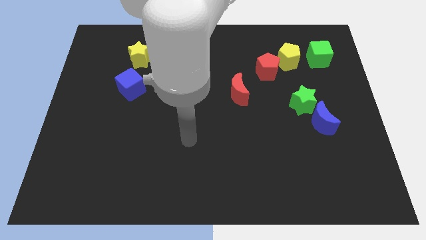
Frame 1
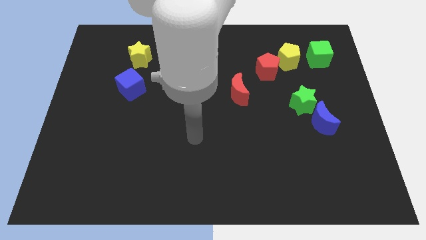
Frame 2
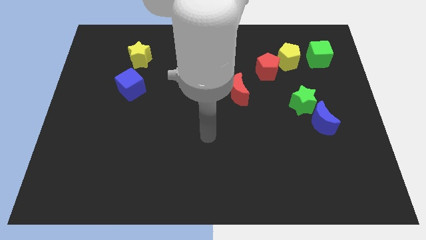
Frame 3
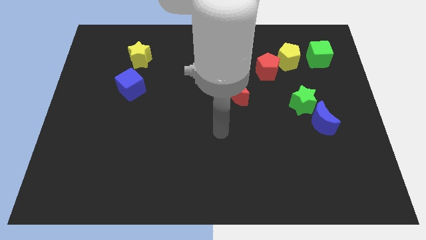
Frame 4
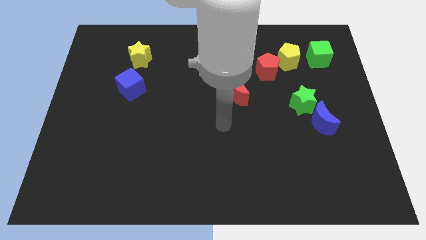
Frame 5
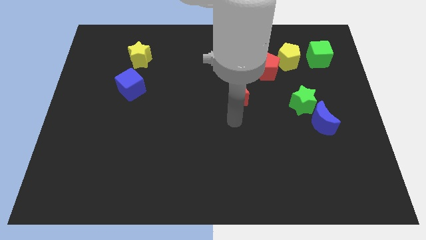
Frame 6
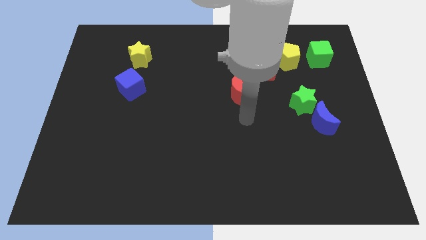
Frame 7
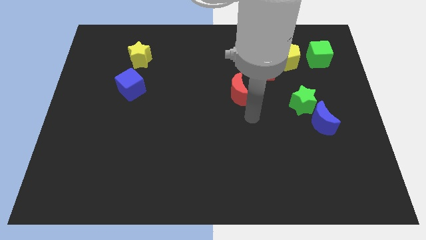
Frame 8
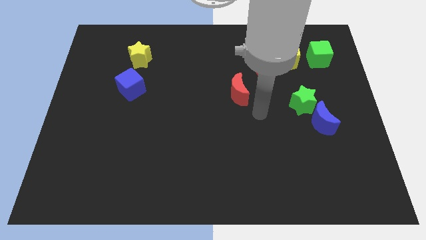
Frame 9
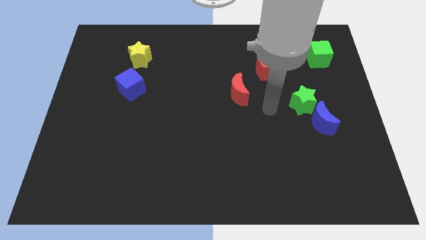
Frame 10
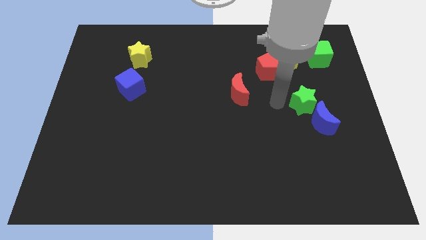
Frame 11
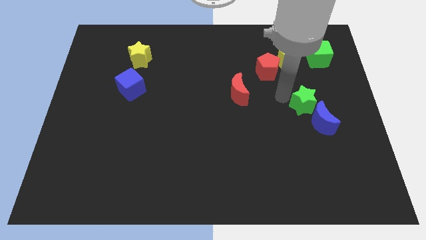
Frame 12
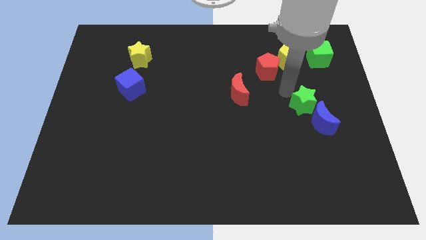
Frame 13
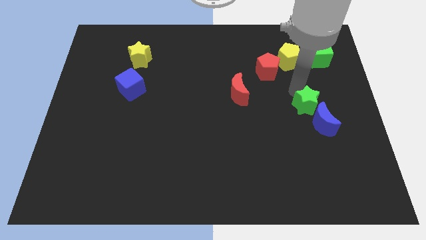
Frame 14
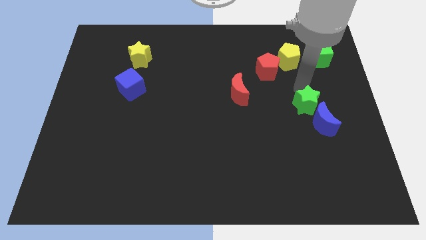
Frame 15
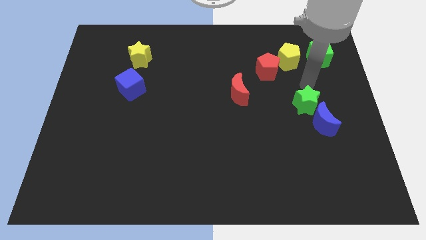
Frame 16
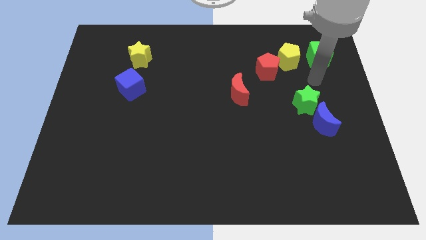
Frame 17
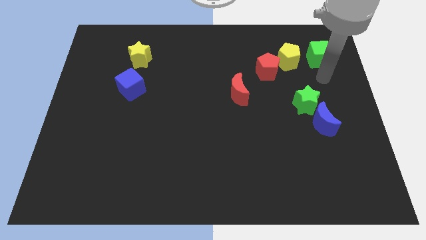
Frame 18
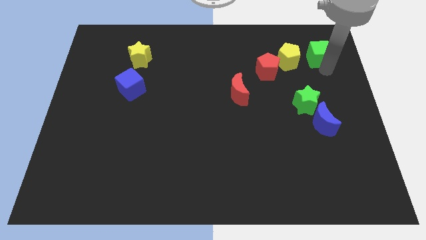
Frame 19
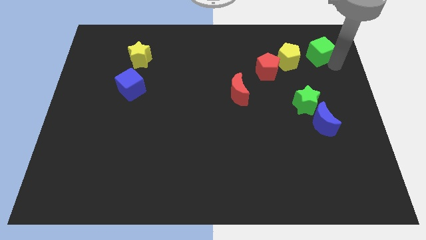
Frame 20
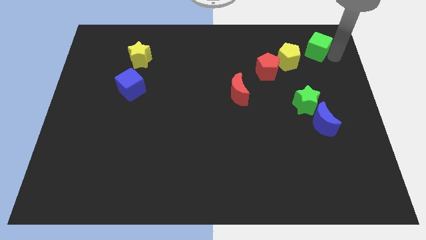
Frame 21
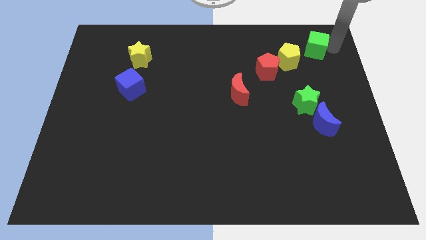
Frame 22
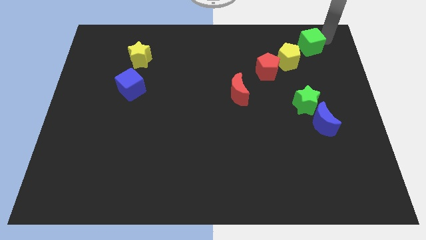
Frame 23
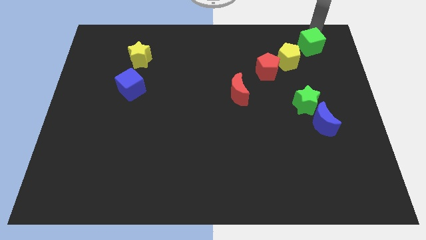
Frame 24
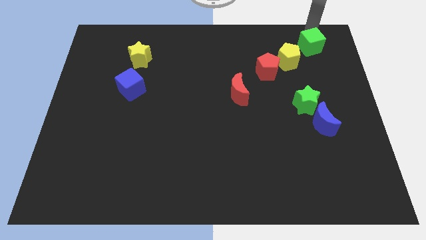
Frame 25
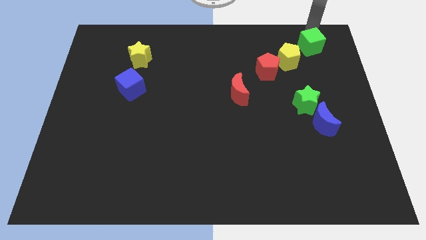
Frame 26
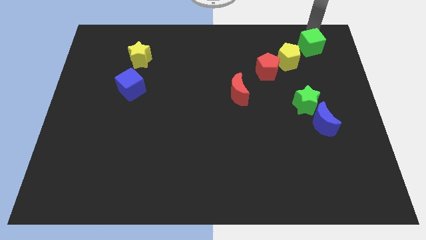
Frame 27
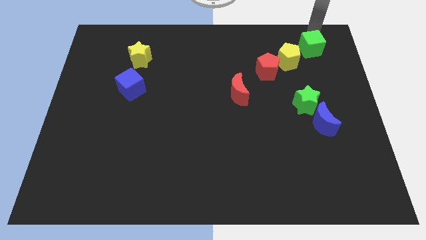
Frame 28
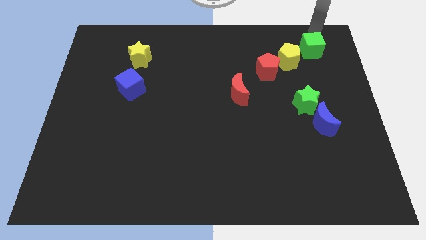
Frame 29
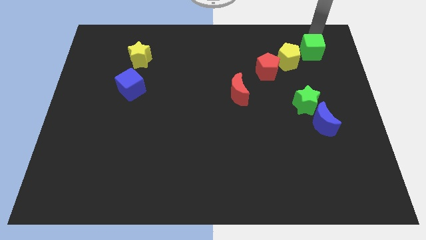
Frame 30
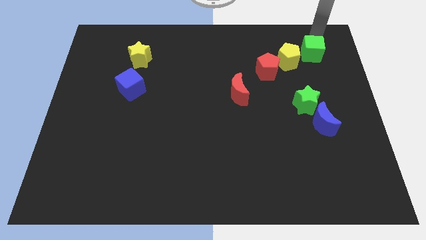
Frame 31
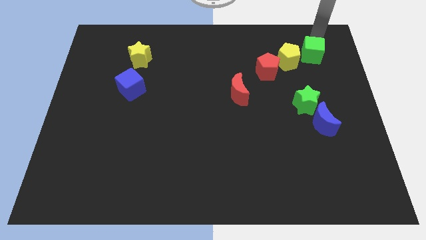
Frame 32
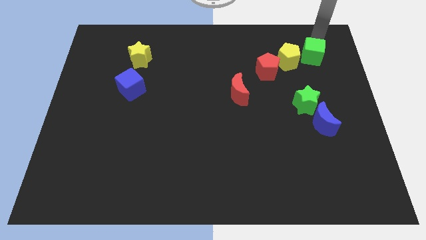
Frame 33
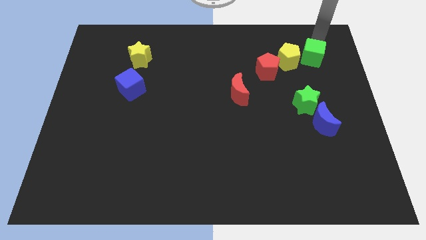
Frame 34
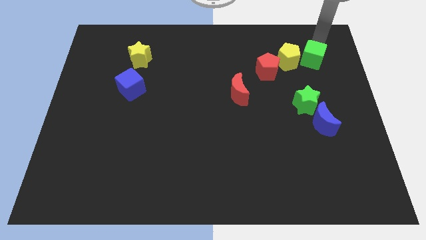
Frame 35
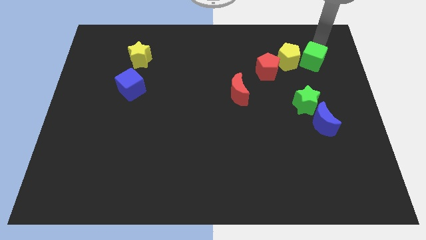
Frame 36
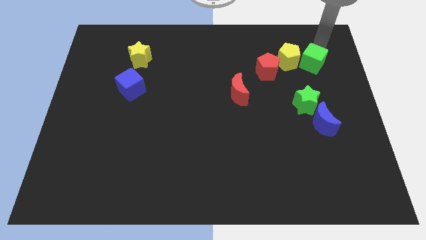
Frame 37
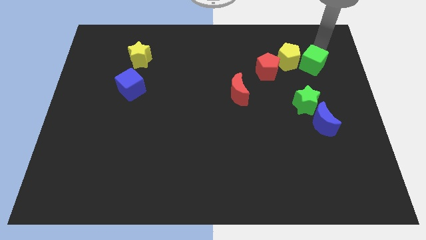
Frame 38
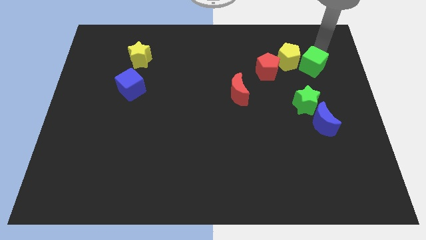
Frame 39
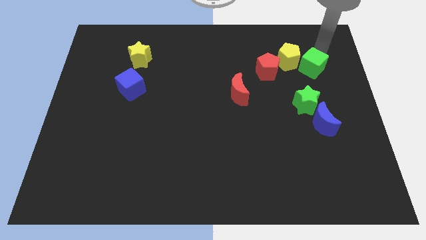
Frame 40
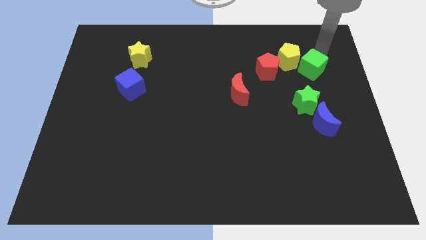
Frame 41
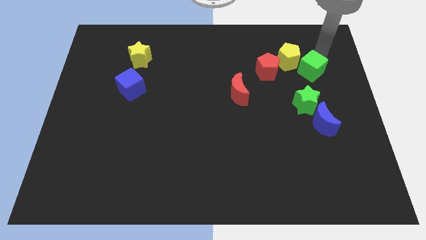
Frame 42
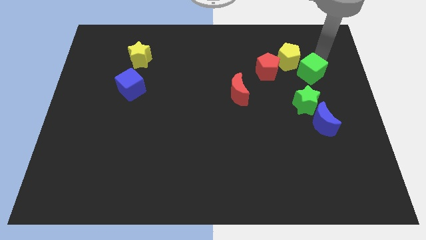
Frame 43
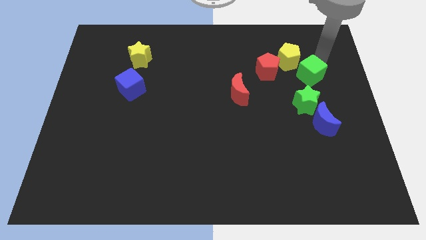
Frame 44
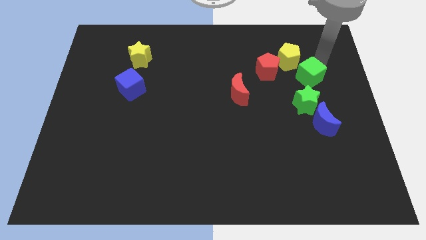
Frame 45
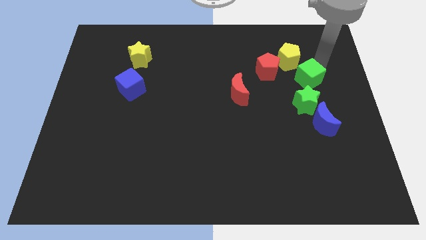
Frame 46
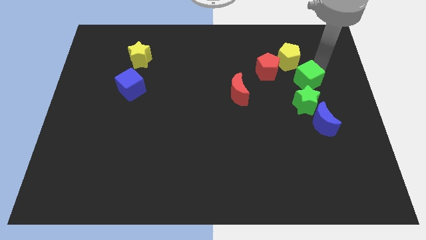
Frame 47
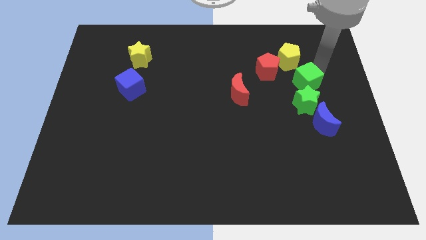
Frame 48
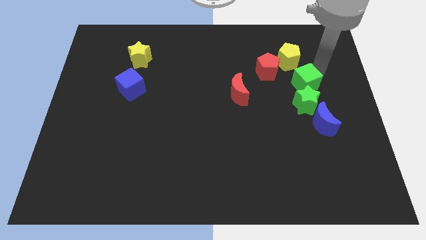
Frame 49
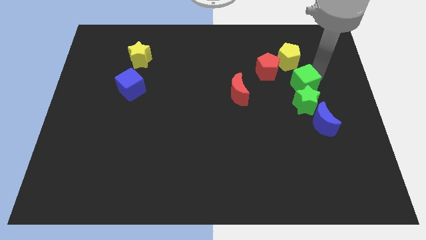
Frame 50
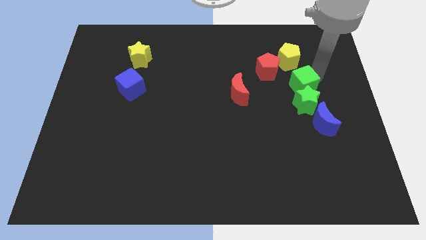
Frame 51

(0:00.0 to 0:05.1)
put the green cube diagonally up and to the left of the green star

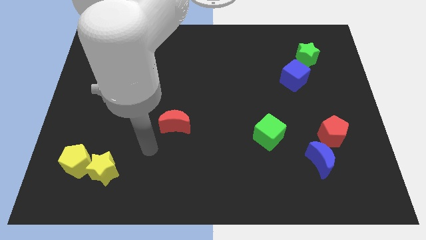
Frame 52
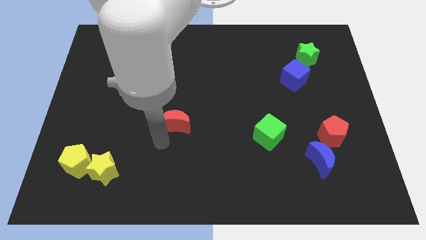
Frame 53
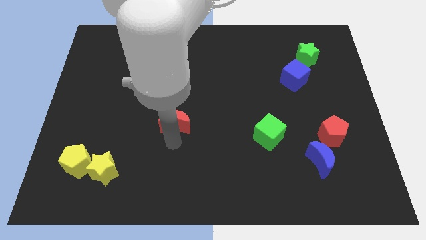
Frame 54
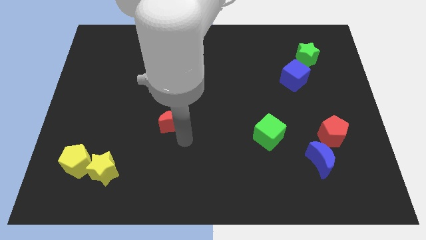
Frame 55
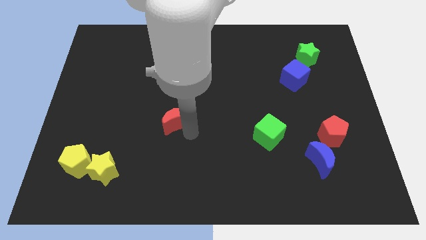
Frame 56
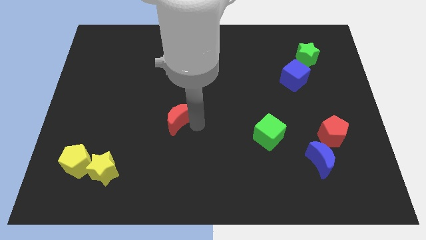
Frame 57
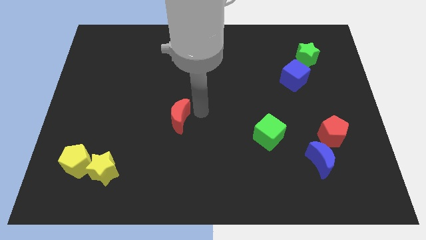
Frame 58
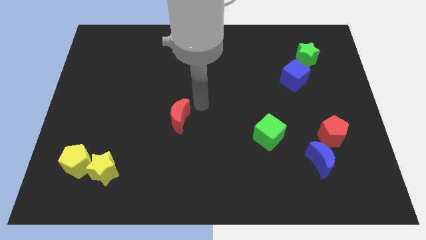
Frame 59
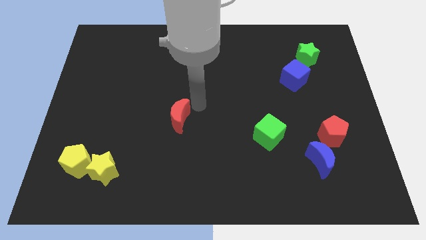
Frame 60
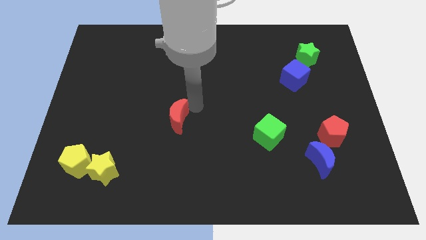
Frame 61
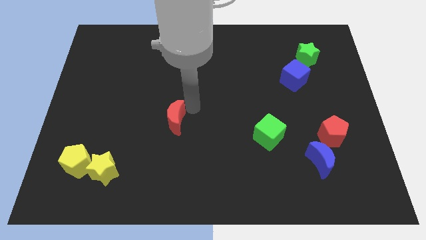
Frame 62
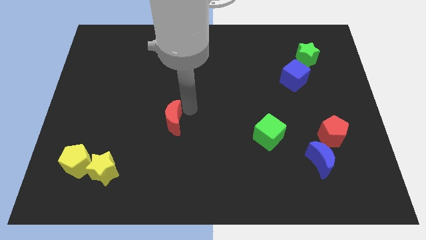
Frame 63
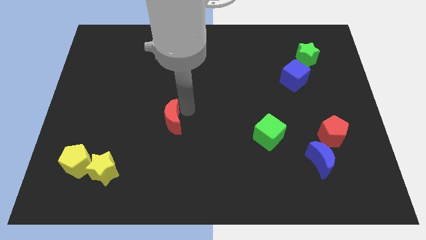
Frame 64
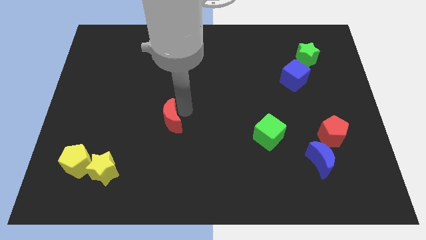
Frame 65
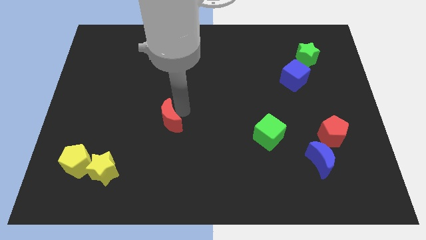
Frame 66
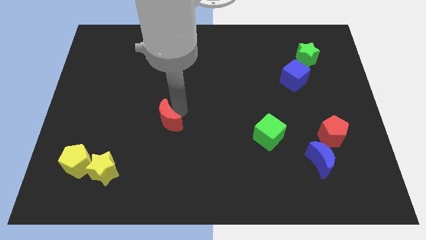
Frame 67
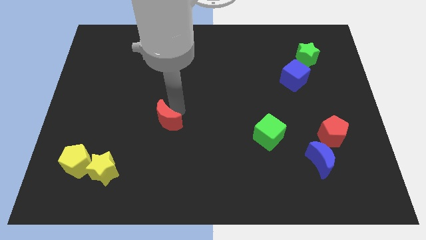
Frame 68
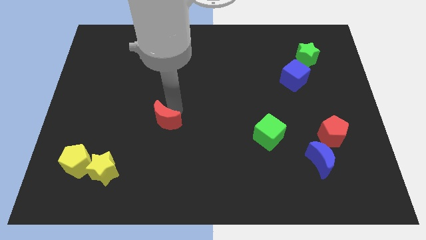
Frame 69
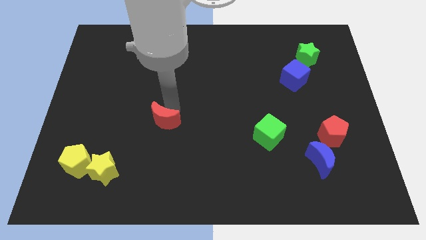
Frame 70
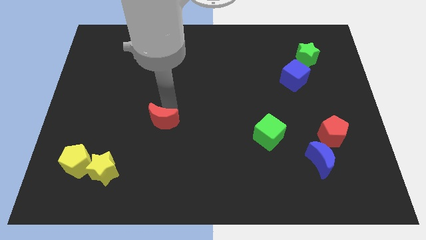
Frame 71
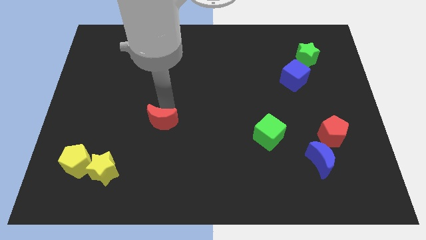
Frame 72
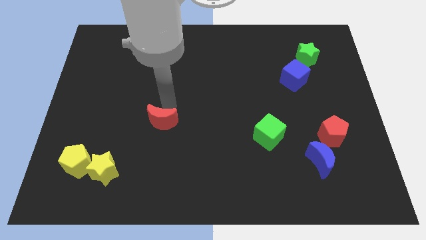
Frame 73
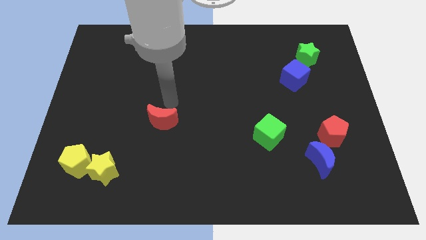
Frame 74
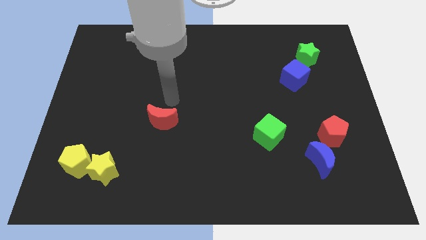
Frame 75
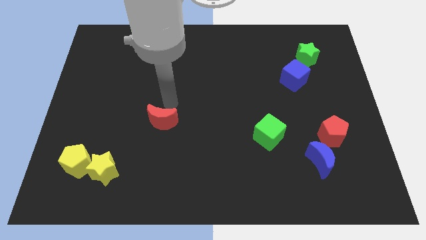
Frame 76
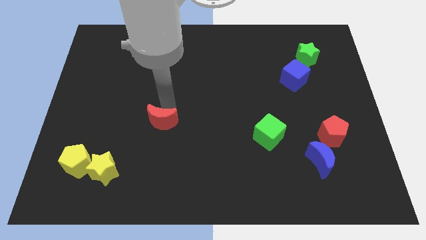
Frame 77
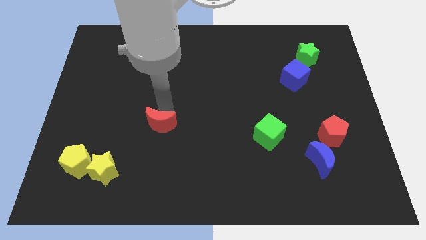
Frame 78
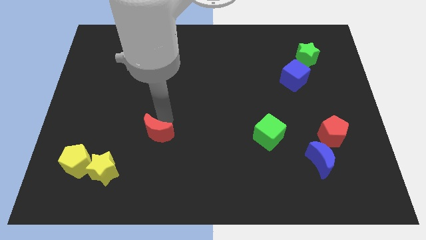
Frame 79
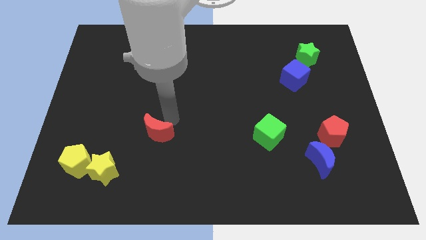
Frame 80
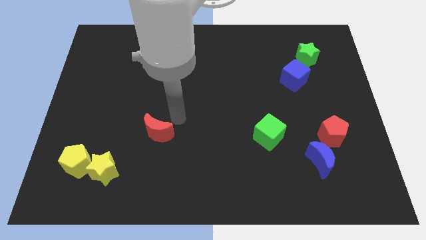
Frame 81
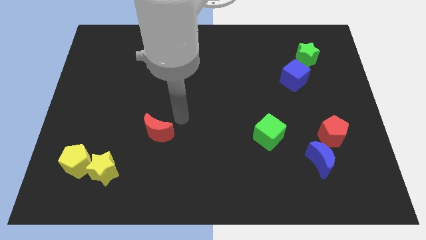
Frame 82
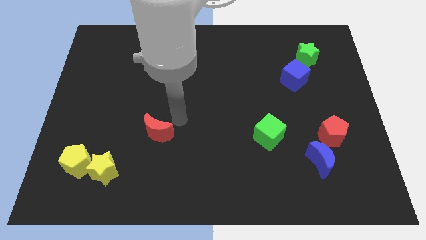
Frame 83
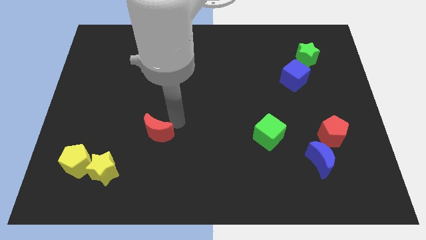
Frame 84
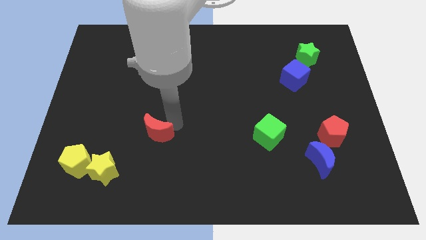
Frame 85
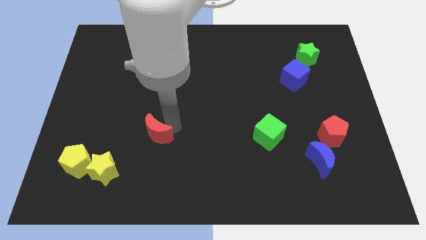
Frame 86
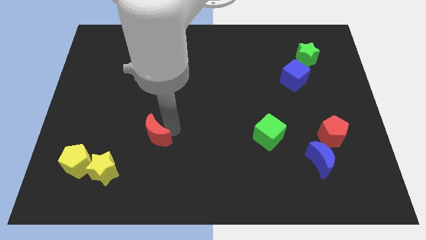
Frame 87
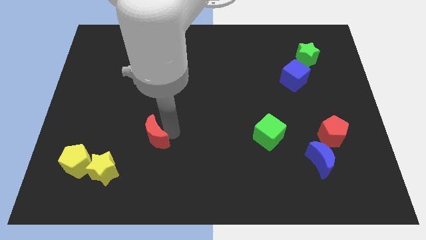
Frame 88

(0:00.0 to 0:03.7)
move the red moon diagonally up and to the right of the yellow star
